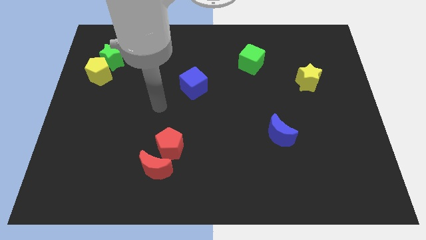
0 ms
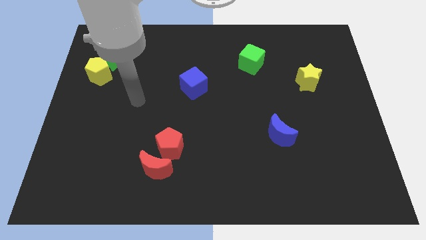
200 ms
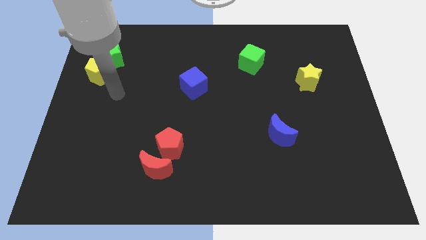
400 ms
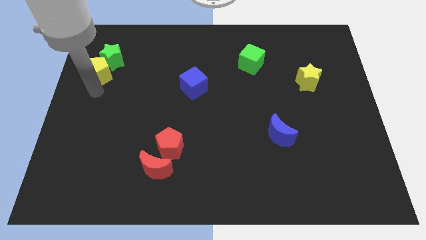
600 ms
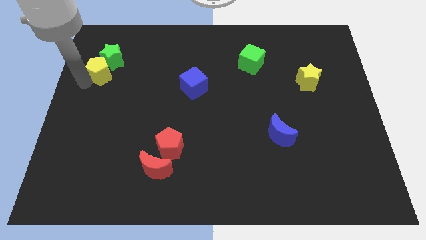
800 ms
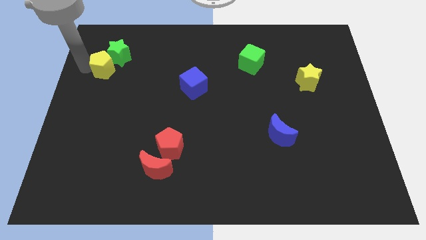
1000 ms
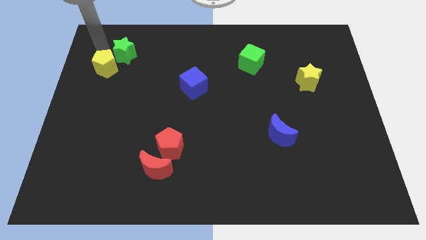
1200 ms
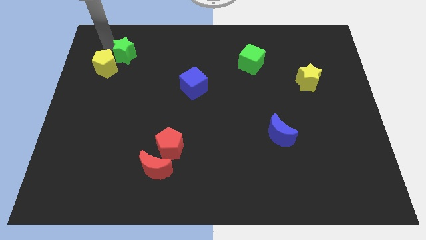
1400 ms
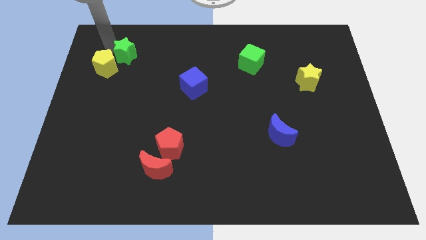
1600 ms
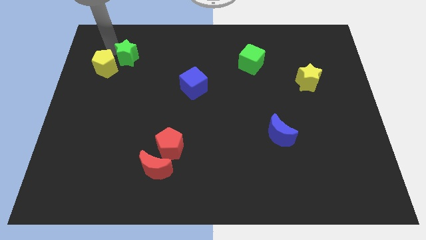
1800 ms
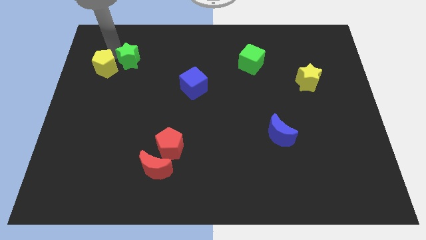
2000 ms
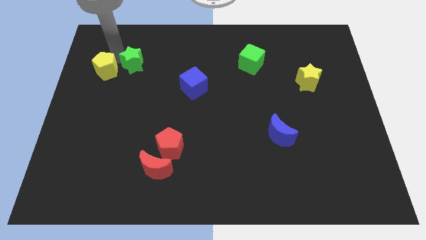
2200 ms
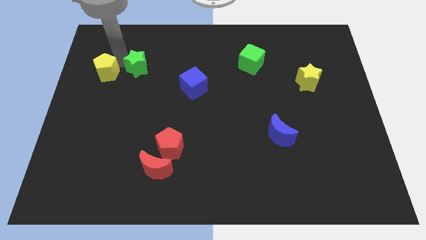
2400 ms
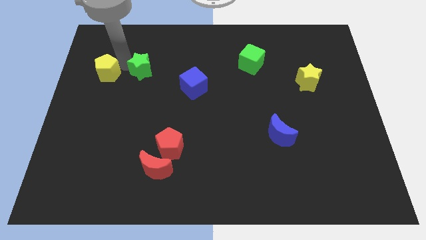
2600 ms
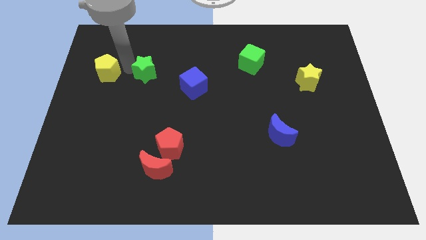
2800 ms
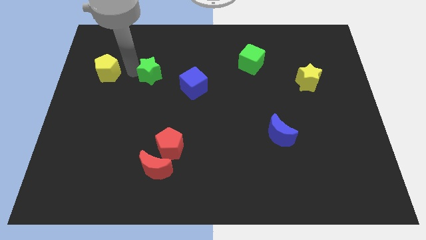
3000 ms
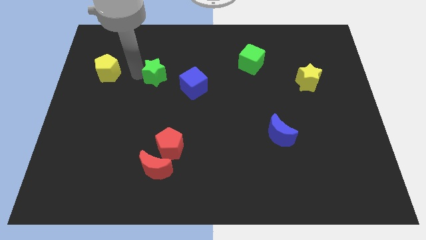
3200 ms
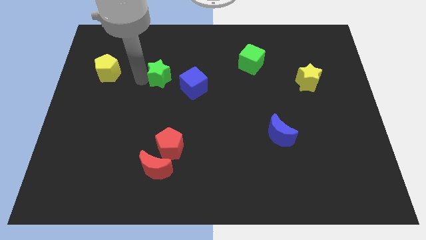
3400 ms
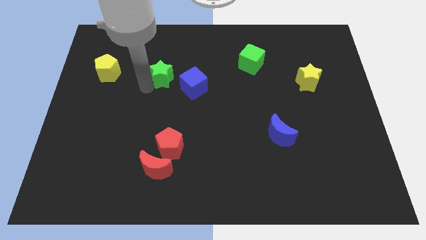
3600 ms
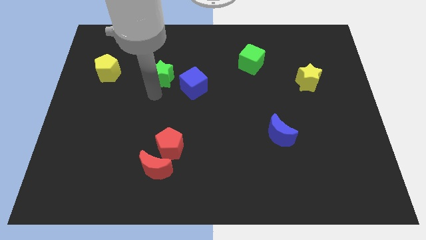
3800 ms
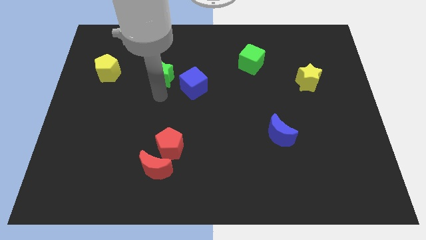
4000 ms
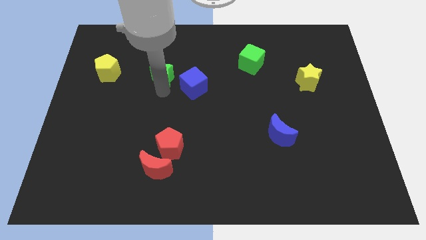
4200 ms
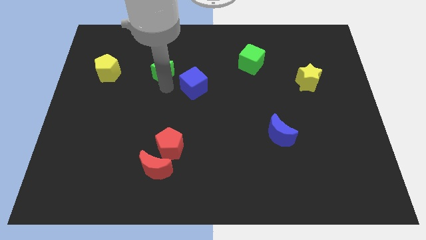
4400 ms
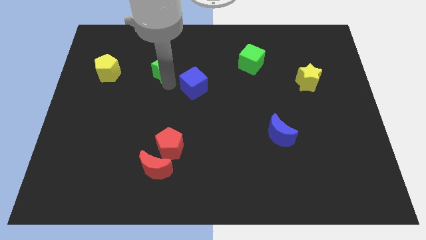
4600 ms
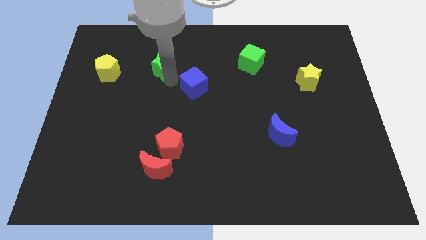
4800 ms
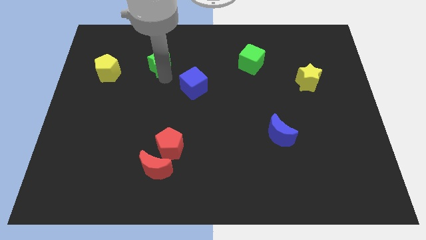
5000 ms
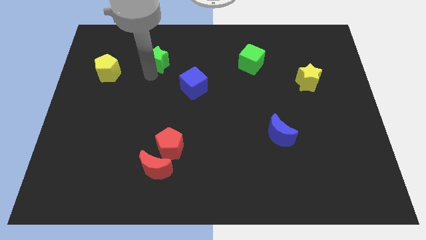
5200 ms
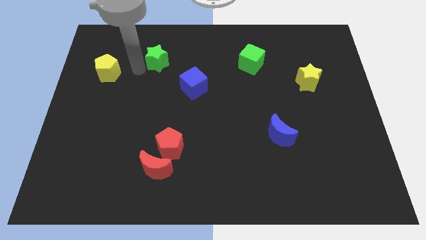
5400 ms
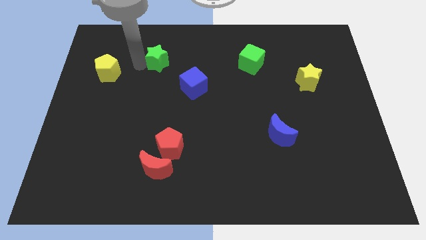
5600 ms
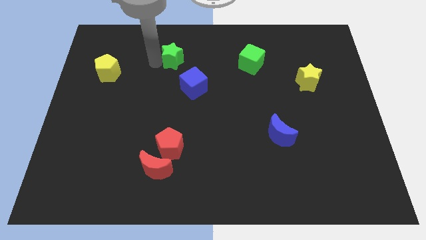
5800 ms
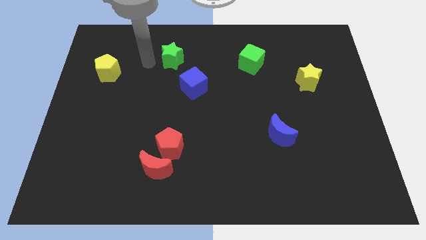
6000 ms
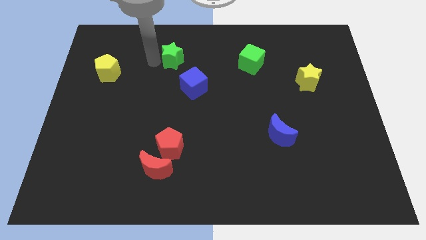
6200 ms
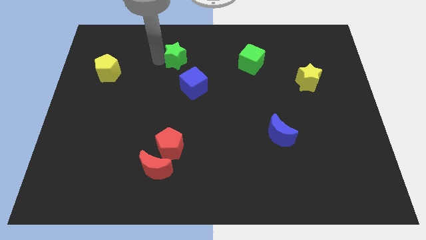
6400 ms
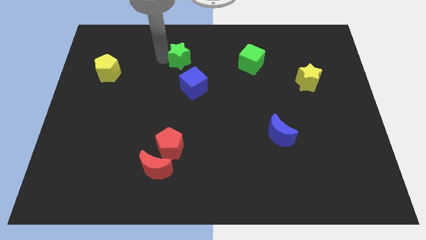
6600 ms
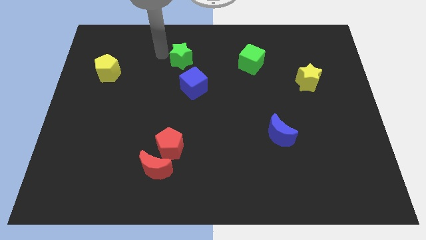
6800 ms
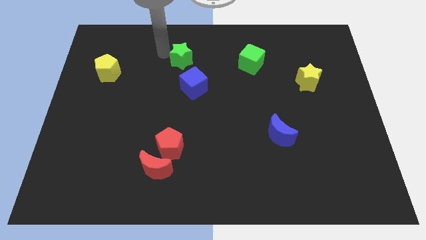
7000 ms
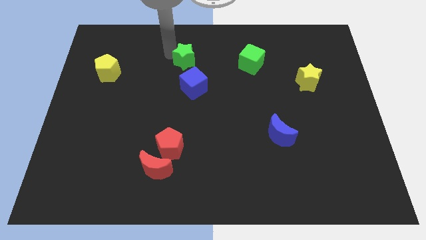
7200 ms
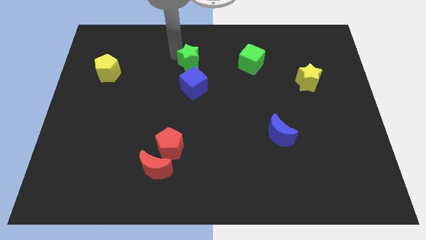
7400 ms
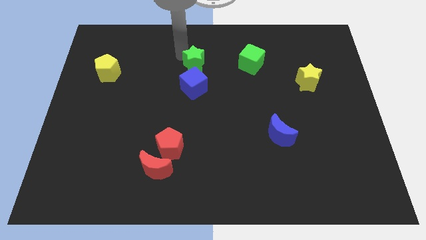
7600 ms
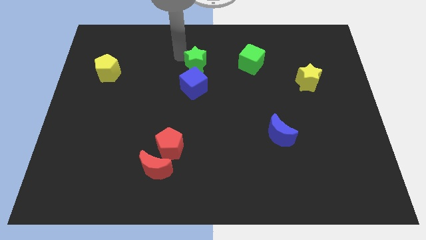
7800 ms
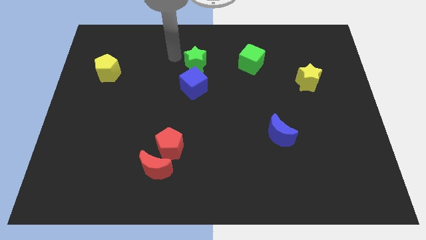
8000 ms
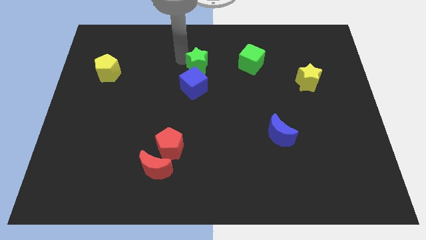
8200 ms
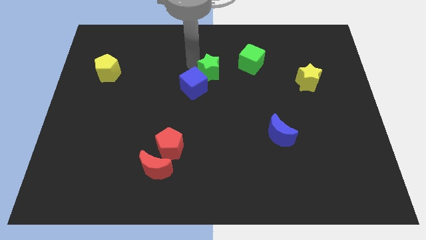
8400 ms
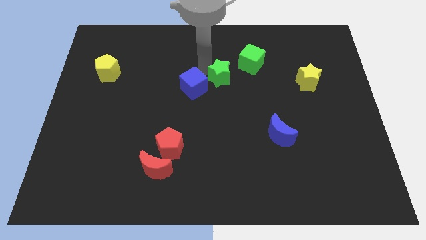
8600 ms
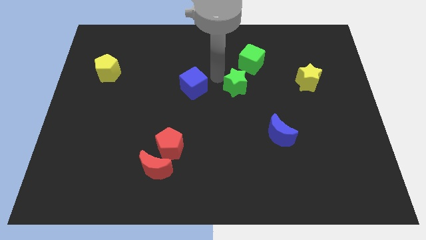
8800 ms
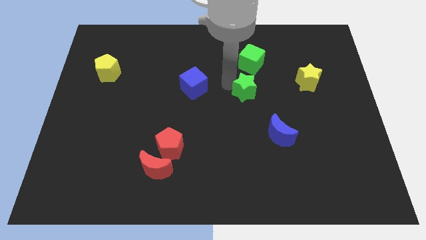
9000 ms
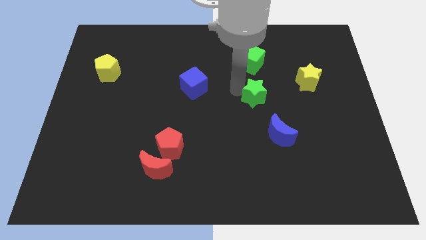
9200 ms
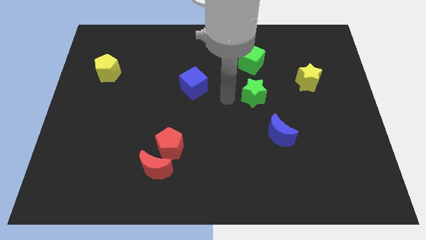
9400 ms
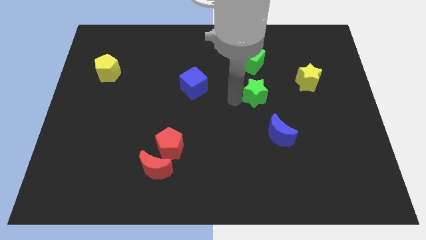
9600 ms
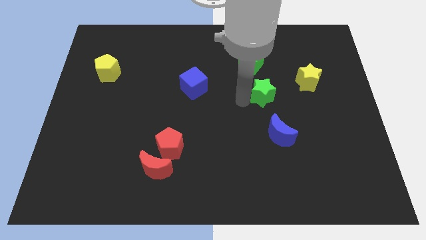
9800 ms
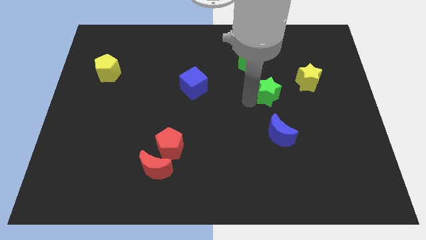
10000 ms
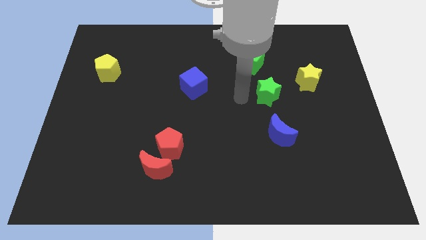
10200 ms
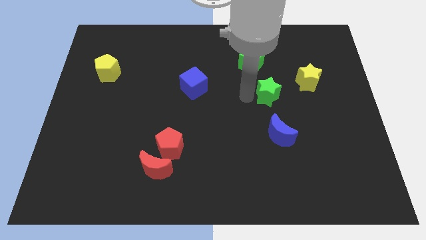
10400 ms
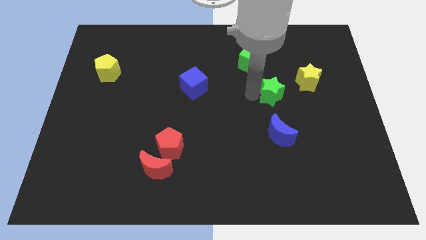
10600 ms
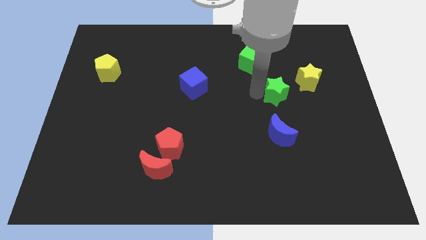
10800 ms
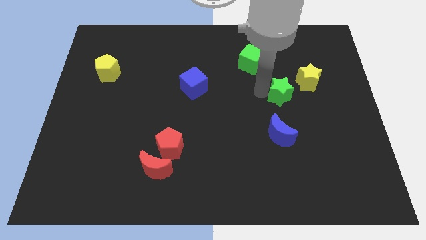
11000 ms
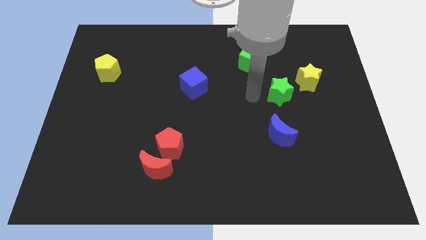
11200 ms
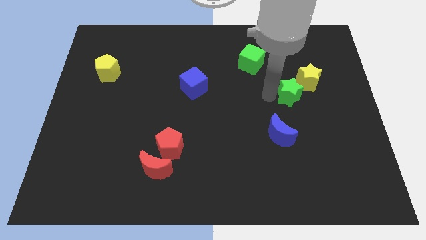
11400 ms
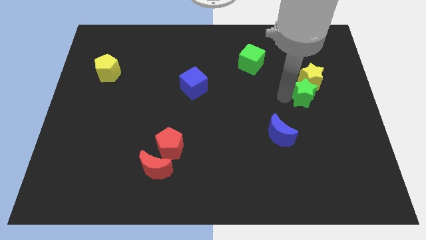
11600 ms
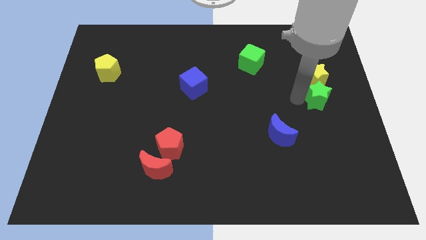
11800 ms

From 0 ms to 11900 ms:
slide the green star to the center right

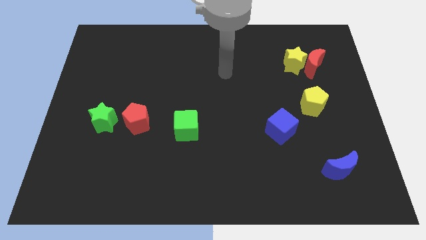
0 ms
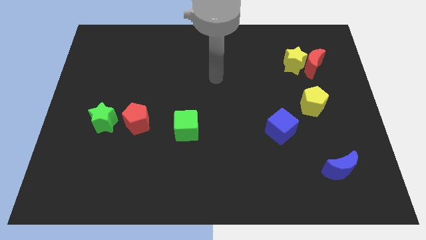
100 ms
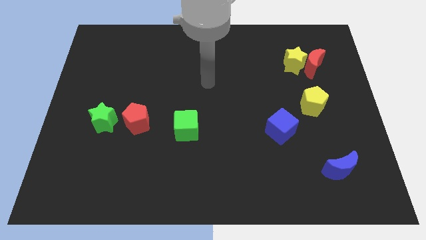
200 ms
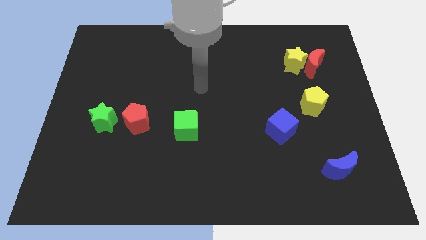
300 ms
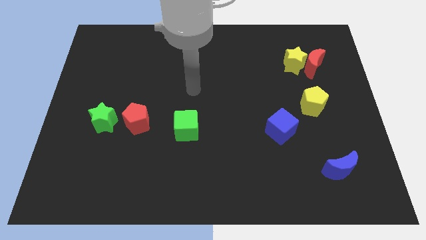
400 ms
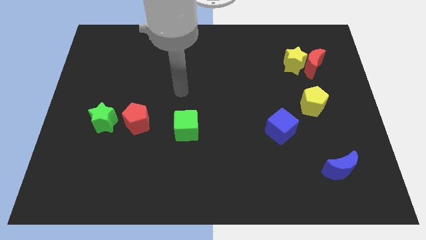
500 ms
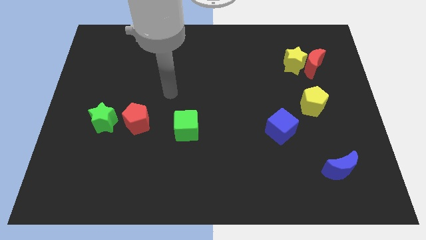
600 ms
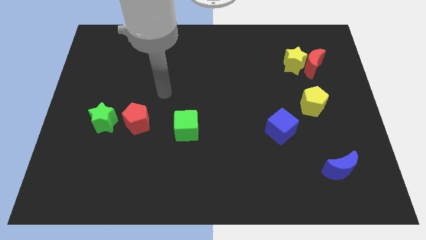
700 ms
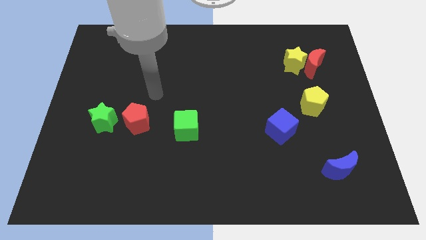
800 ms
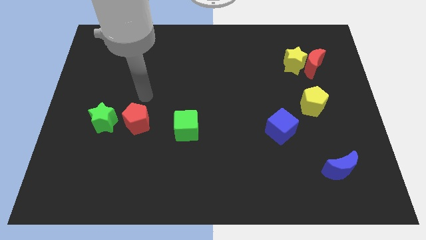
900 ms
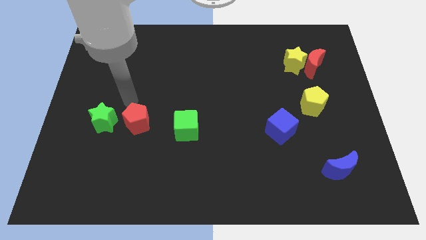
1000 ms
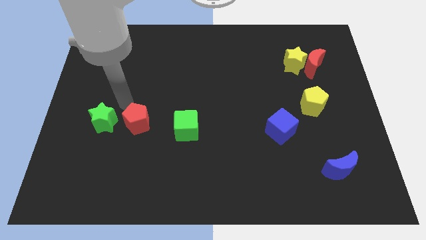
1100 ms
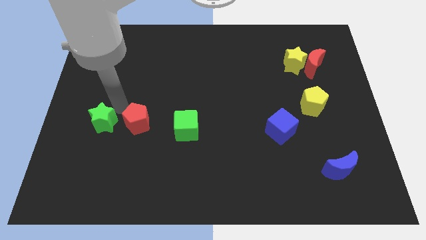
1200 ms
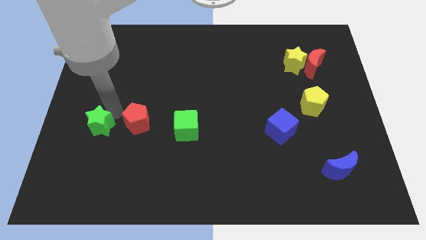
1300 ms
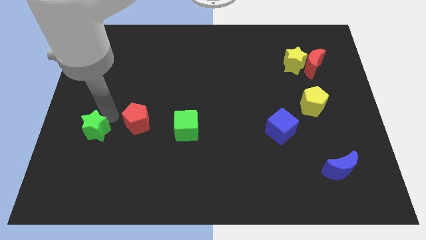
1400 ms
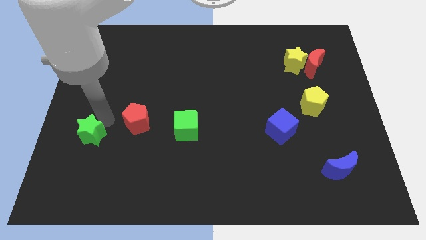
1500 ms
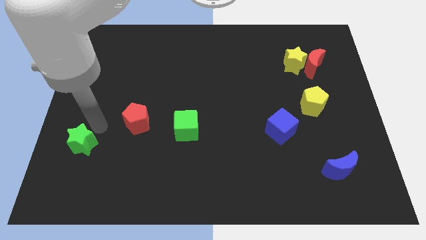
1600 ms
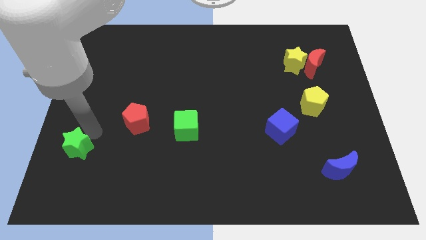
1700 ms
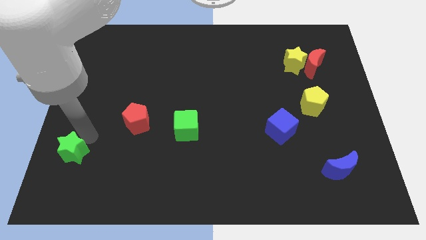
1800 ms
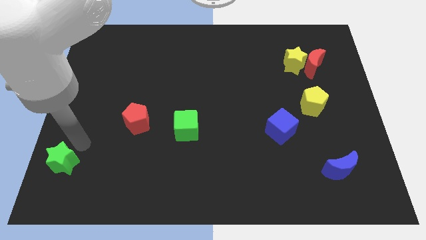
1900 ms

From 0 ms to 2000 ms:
put the green star to the bottom left corner
